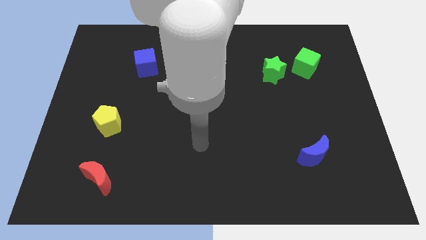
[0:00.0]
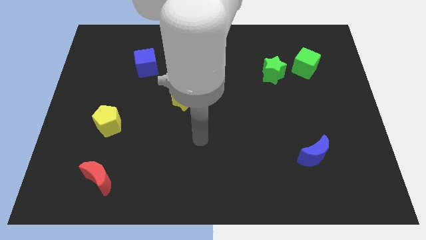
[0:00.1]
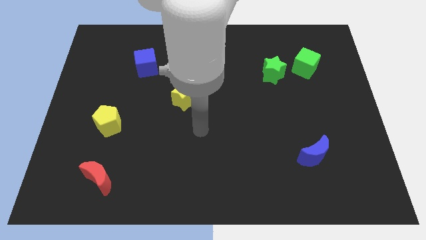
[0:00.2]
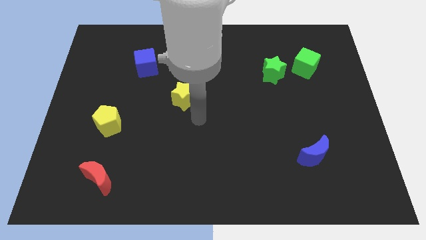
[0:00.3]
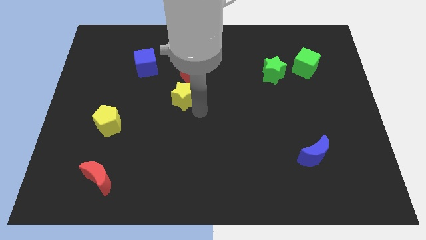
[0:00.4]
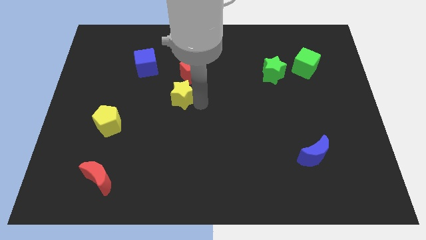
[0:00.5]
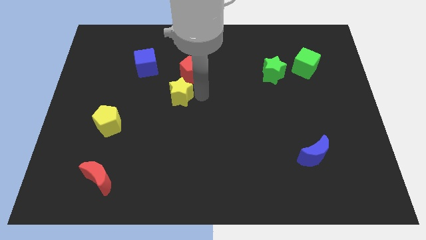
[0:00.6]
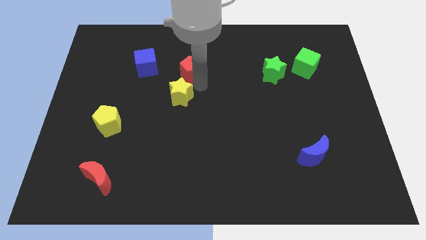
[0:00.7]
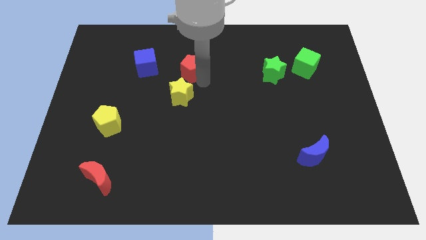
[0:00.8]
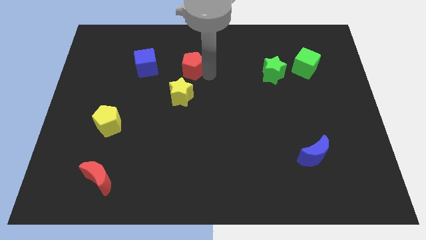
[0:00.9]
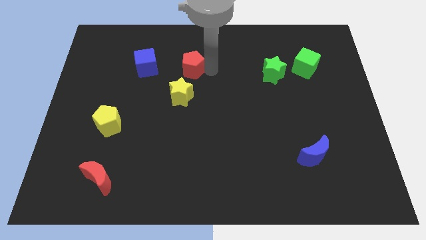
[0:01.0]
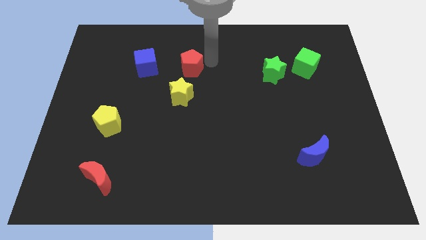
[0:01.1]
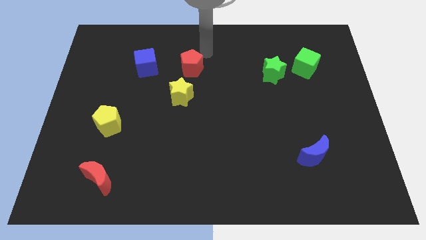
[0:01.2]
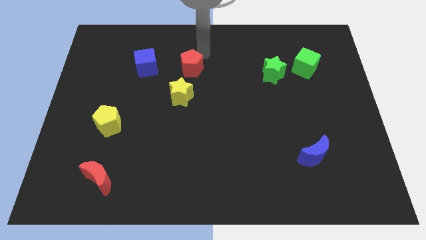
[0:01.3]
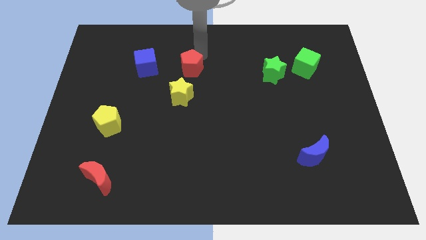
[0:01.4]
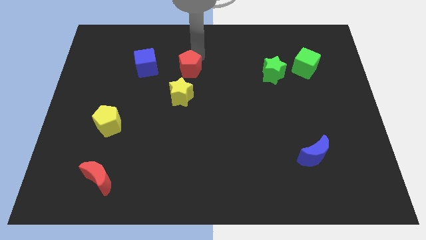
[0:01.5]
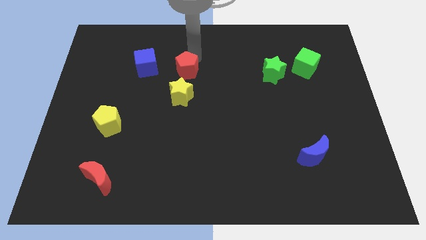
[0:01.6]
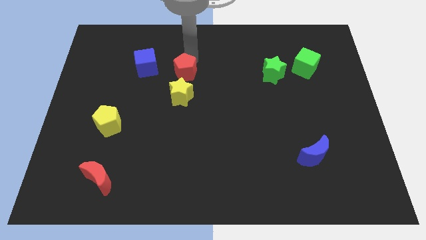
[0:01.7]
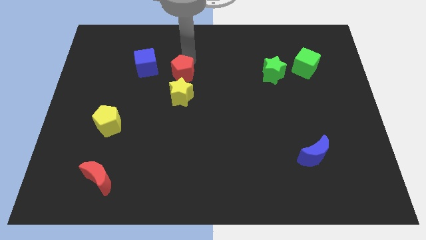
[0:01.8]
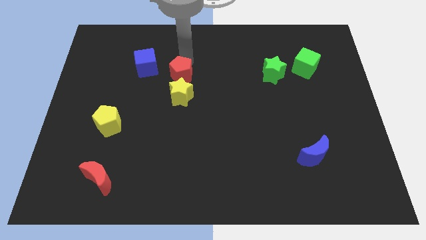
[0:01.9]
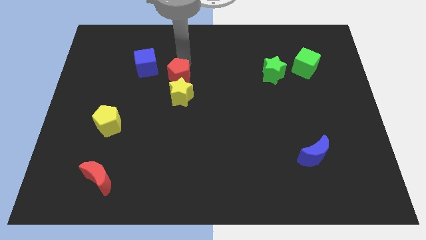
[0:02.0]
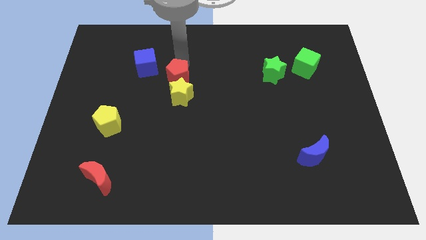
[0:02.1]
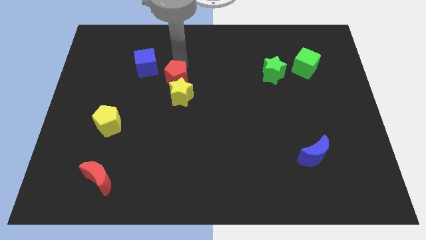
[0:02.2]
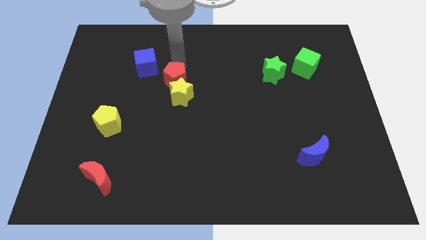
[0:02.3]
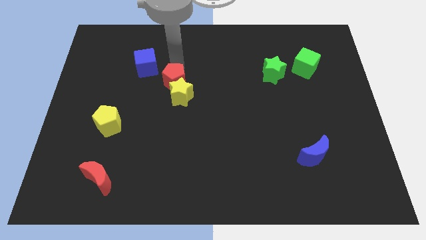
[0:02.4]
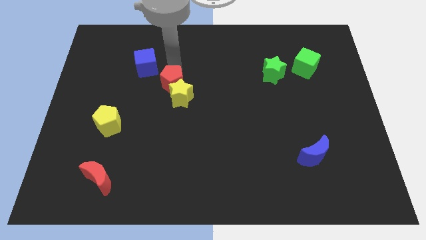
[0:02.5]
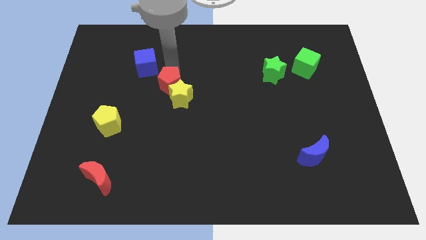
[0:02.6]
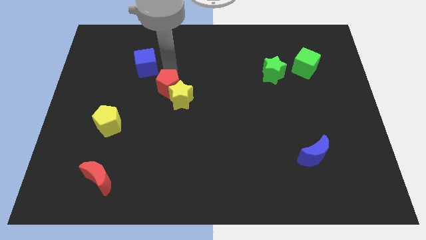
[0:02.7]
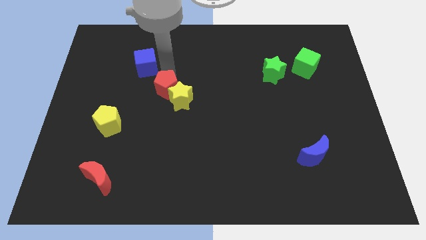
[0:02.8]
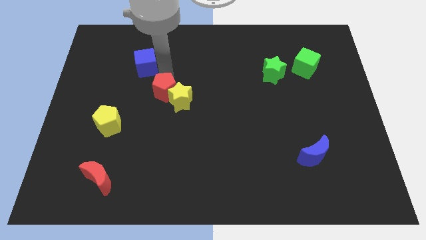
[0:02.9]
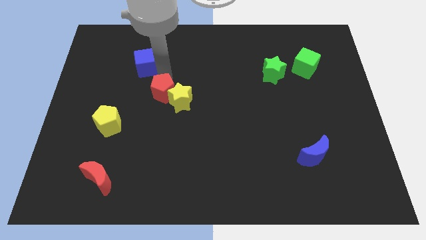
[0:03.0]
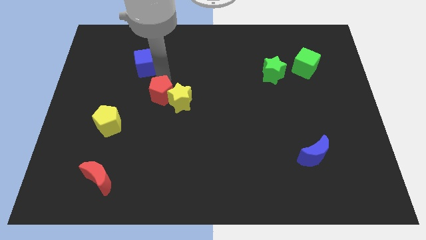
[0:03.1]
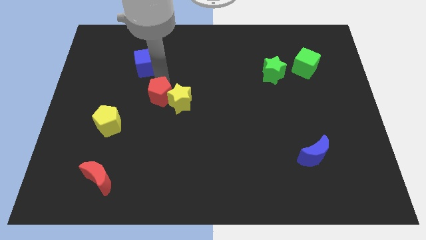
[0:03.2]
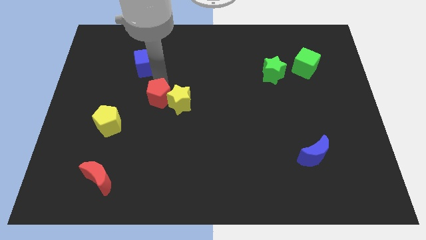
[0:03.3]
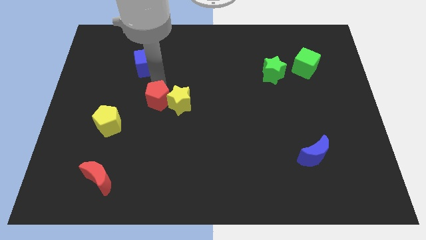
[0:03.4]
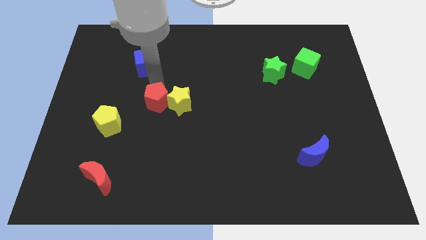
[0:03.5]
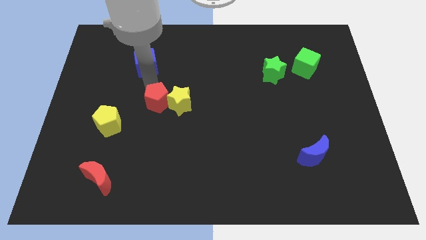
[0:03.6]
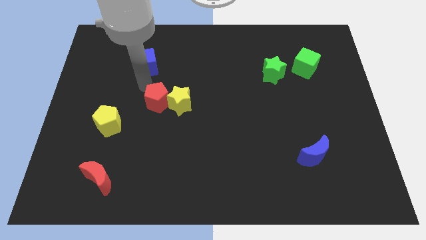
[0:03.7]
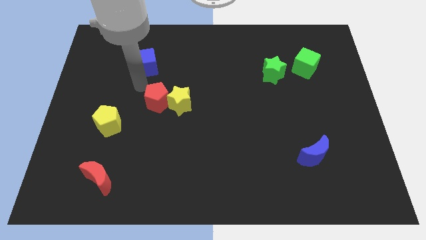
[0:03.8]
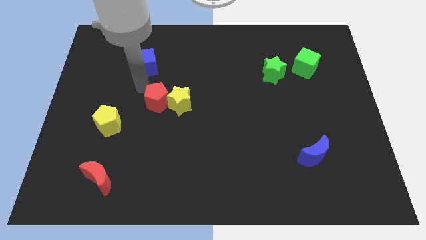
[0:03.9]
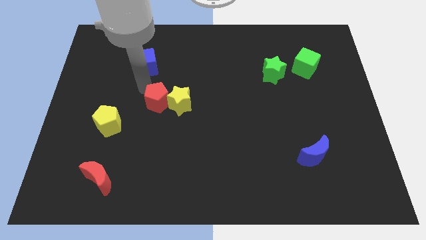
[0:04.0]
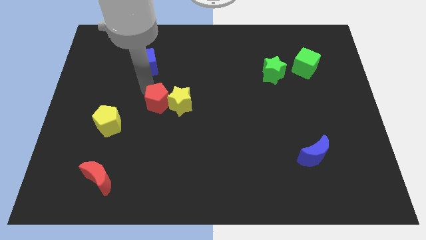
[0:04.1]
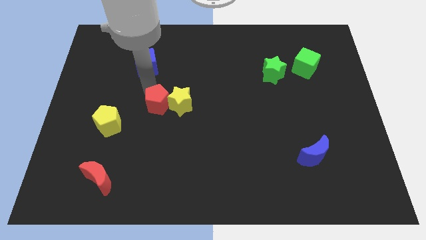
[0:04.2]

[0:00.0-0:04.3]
slightly slide the red pentagon downwards

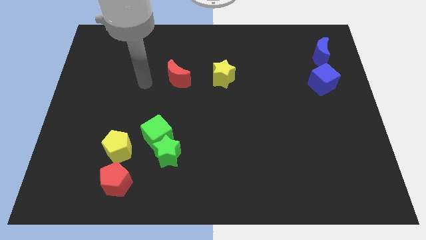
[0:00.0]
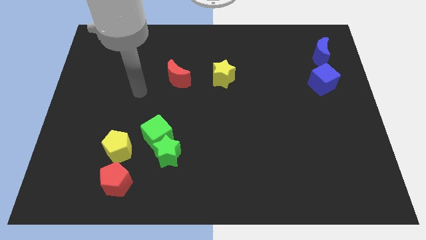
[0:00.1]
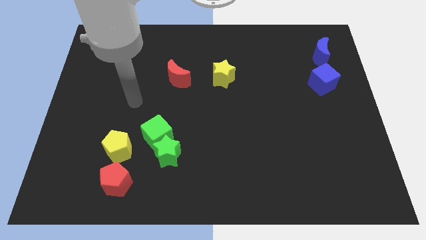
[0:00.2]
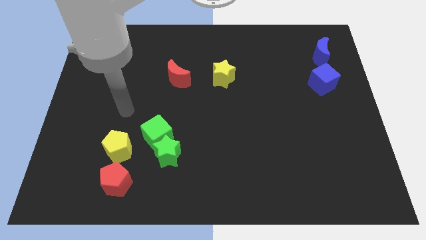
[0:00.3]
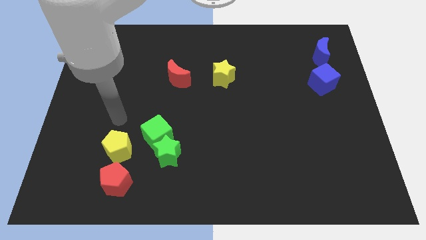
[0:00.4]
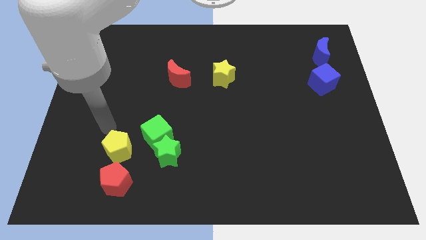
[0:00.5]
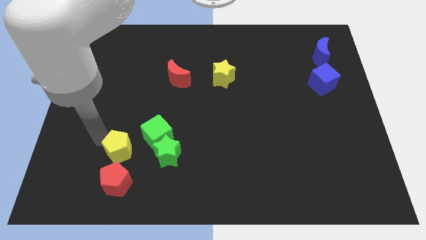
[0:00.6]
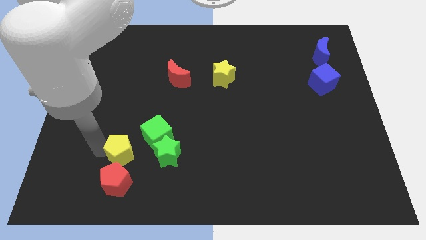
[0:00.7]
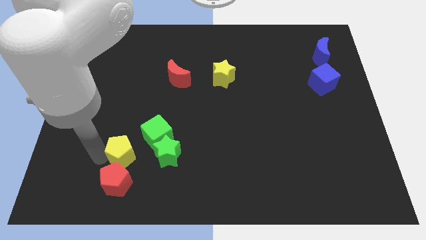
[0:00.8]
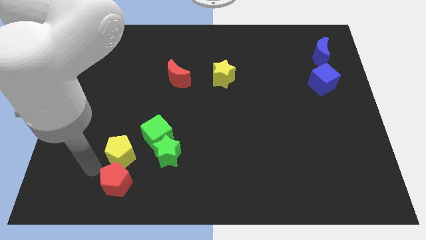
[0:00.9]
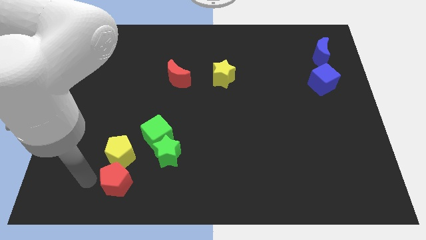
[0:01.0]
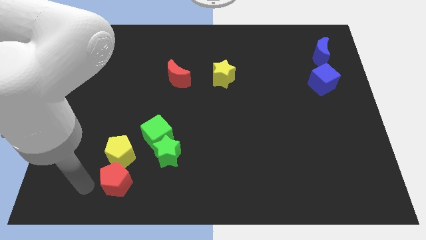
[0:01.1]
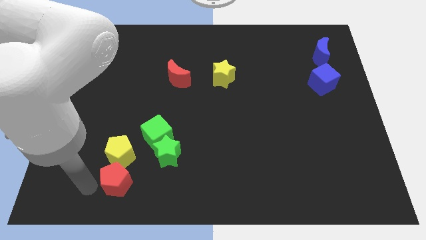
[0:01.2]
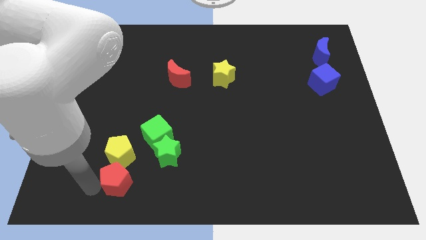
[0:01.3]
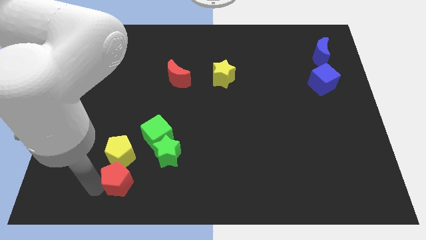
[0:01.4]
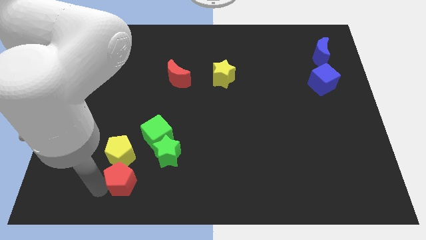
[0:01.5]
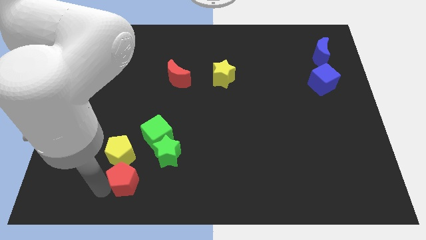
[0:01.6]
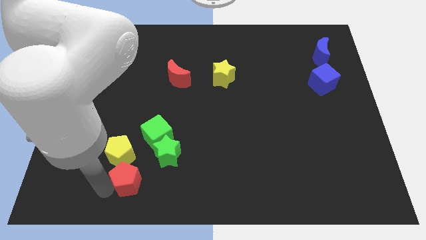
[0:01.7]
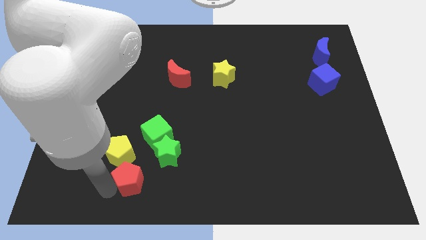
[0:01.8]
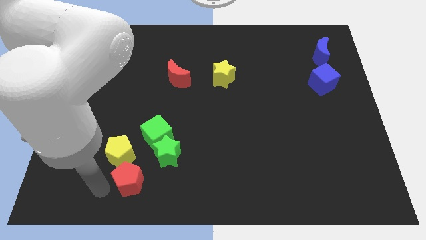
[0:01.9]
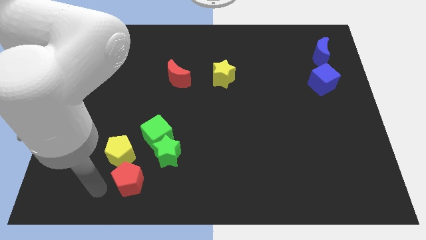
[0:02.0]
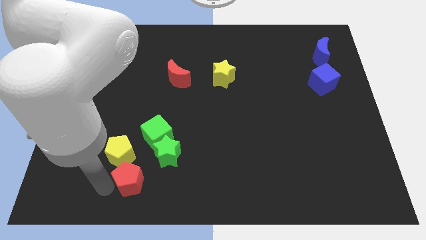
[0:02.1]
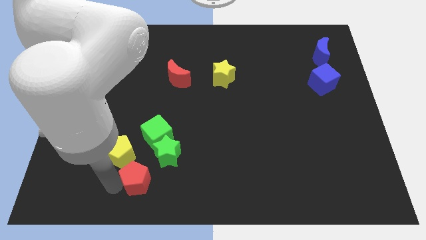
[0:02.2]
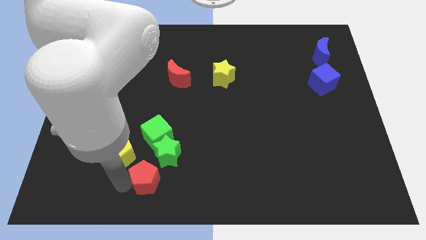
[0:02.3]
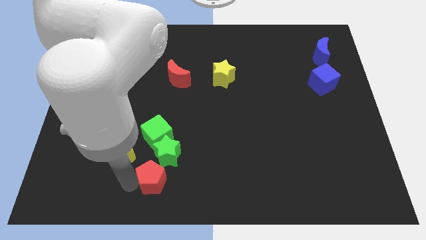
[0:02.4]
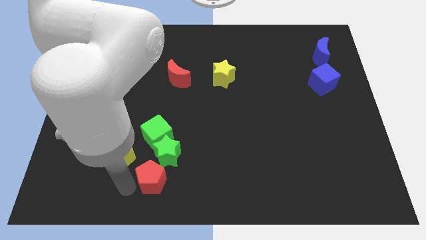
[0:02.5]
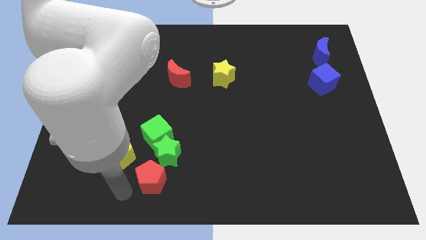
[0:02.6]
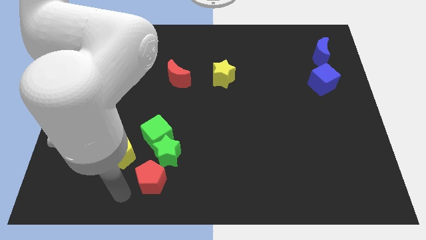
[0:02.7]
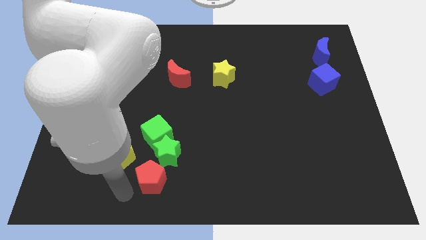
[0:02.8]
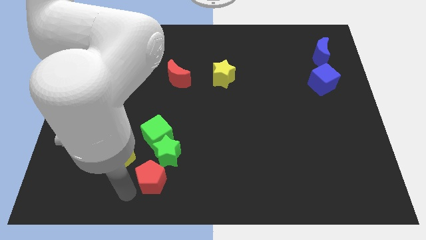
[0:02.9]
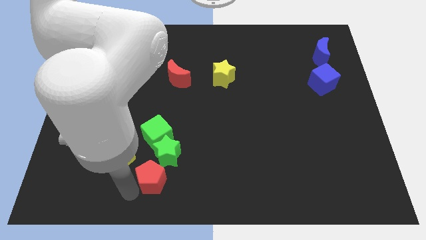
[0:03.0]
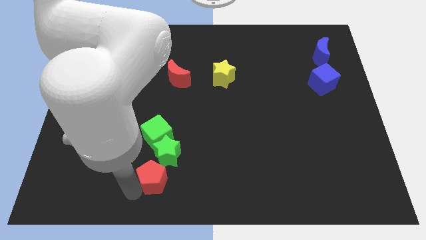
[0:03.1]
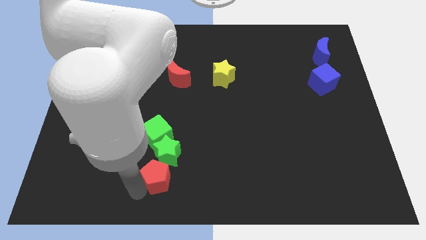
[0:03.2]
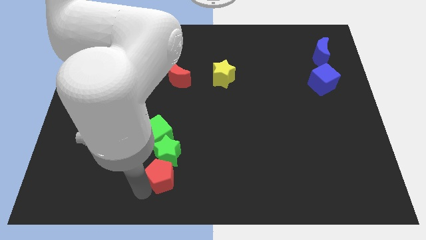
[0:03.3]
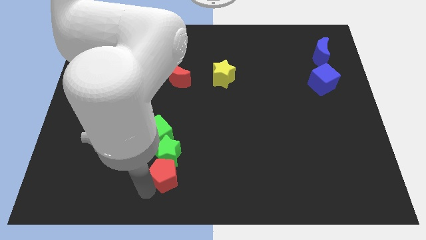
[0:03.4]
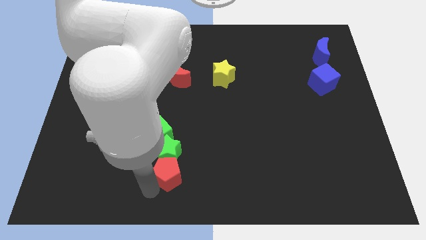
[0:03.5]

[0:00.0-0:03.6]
move the red pentagon upwards and right somewhat
